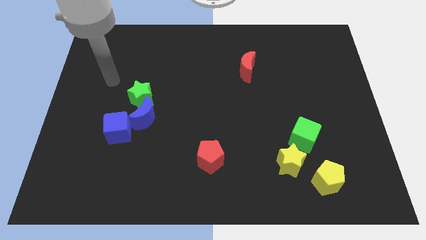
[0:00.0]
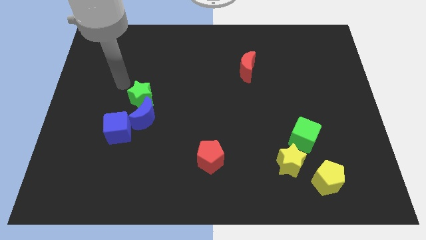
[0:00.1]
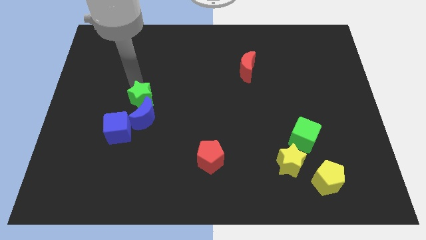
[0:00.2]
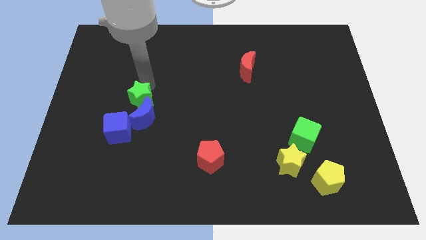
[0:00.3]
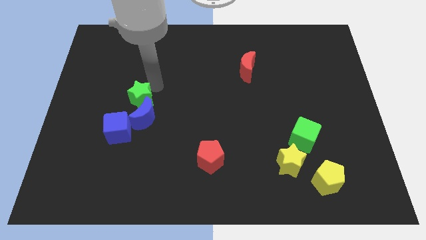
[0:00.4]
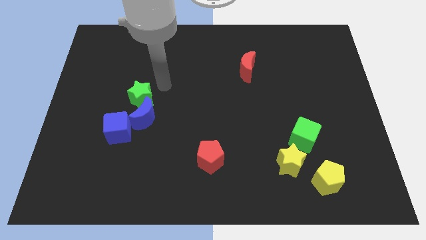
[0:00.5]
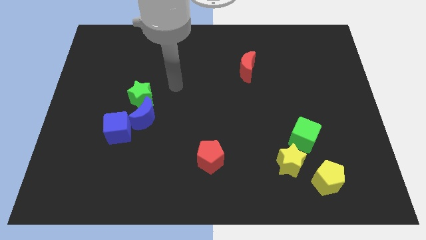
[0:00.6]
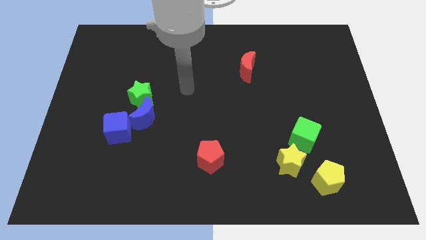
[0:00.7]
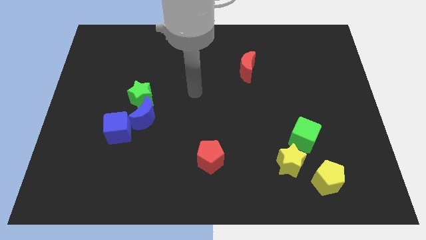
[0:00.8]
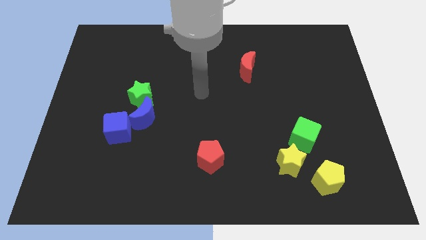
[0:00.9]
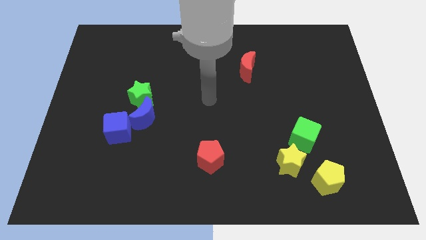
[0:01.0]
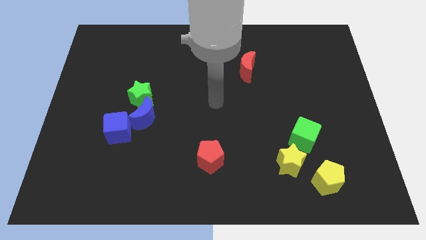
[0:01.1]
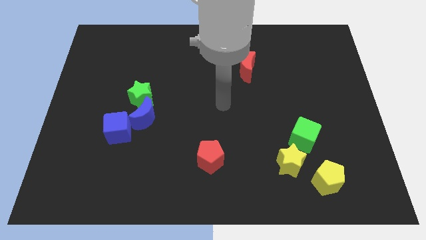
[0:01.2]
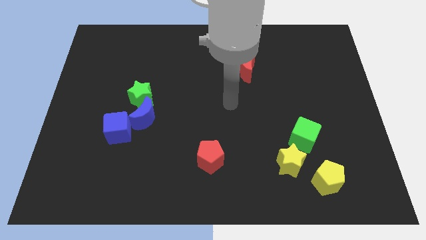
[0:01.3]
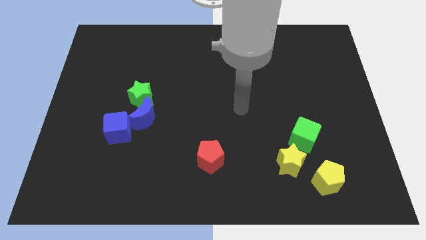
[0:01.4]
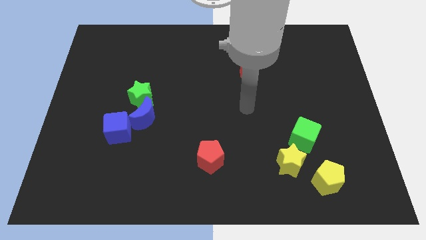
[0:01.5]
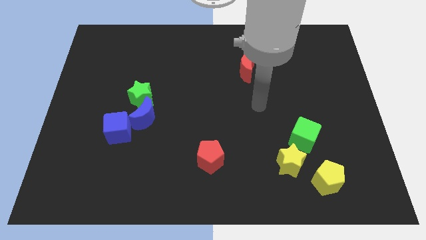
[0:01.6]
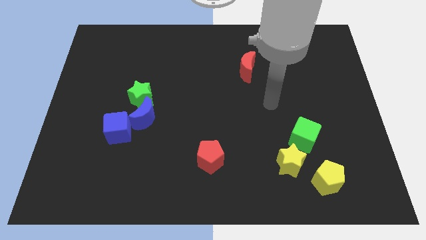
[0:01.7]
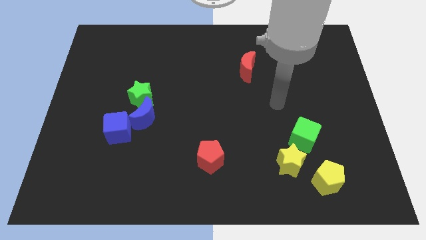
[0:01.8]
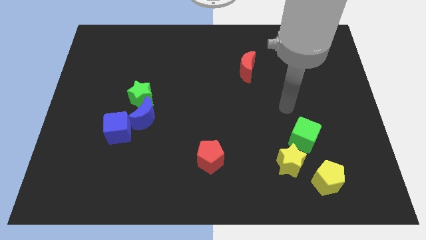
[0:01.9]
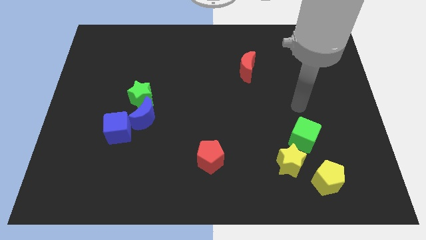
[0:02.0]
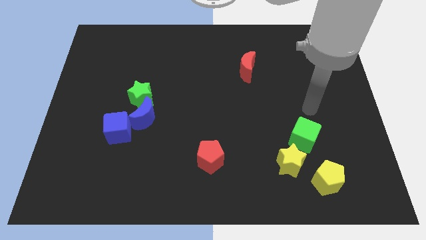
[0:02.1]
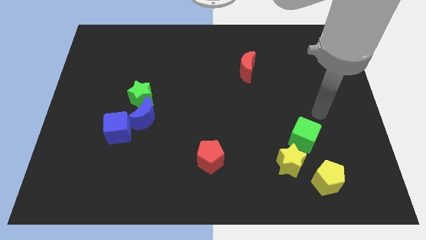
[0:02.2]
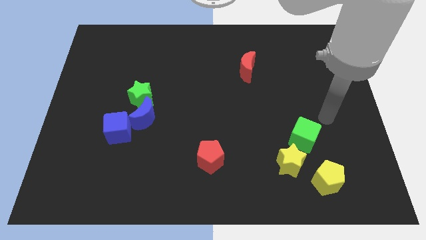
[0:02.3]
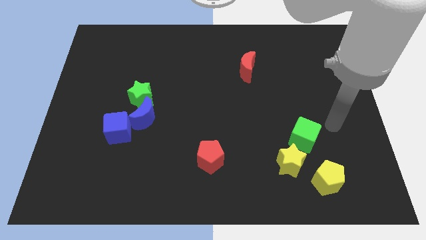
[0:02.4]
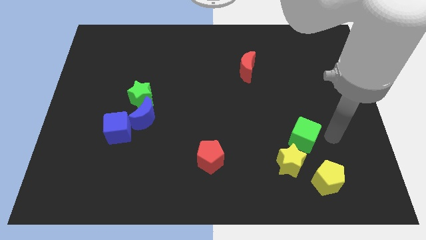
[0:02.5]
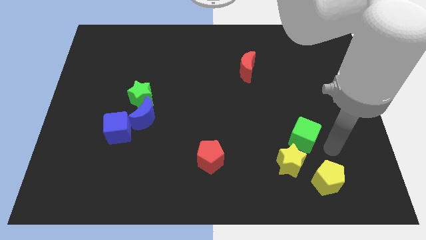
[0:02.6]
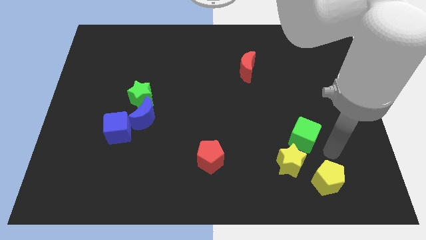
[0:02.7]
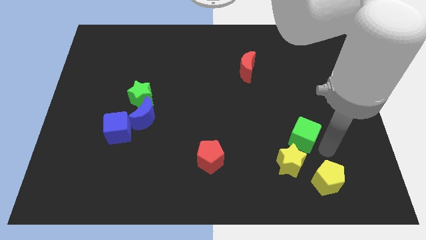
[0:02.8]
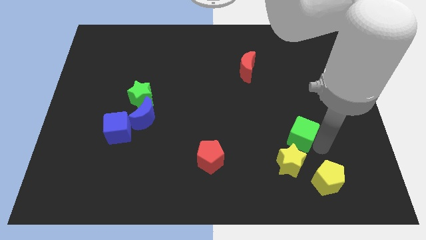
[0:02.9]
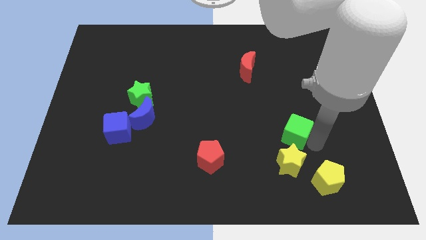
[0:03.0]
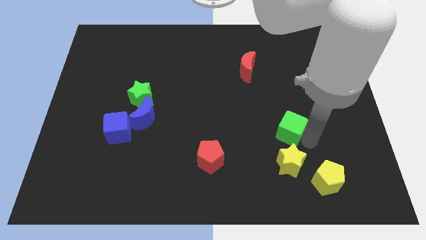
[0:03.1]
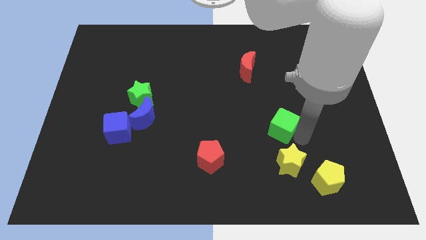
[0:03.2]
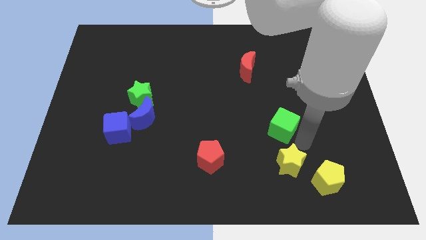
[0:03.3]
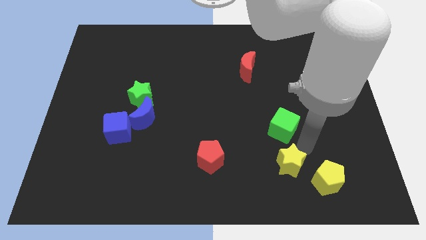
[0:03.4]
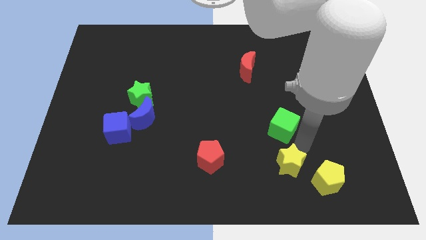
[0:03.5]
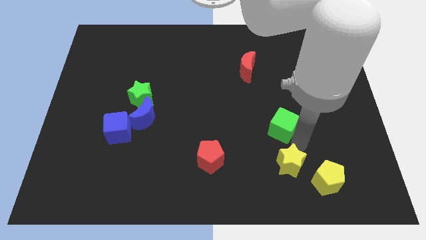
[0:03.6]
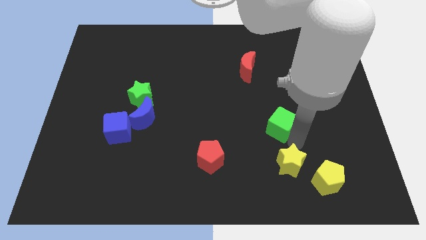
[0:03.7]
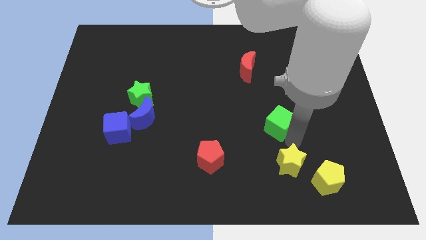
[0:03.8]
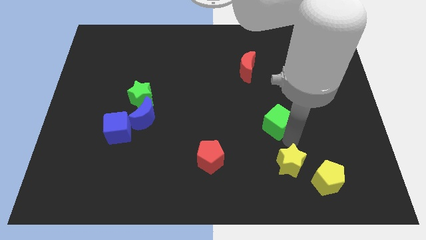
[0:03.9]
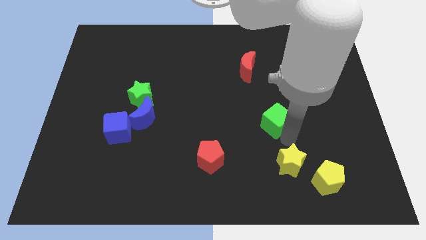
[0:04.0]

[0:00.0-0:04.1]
slightly slide the green cube diagonally upwards and to the left

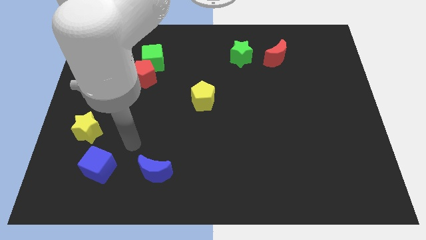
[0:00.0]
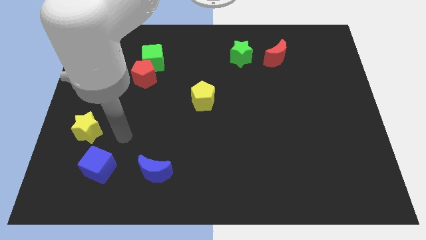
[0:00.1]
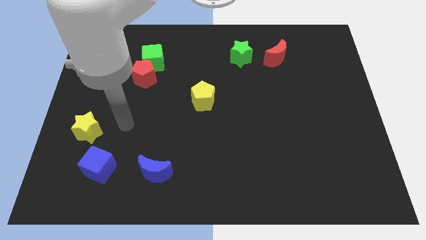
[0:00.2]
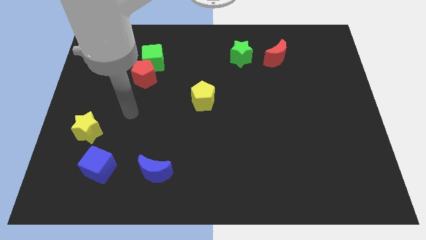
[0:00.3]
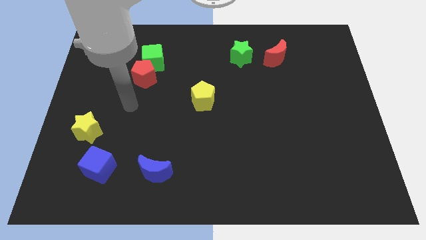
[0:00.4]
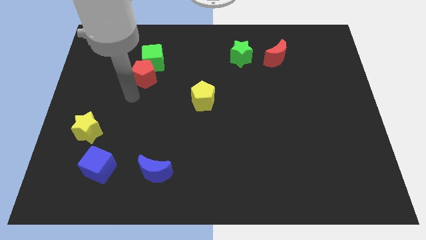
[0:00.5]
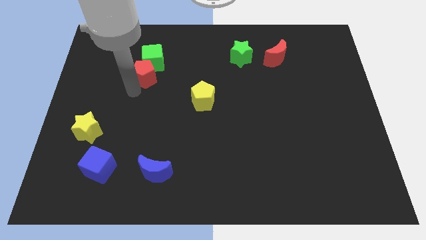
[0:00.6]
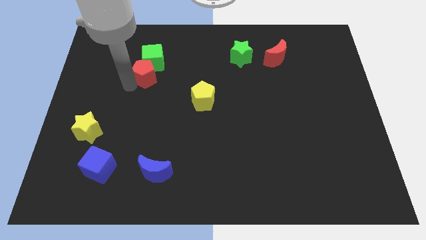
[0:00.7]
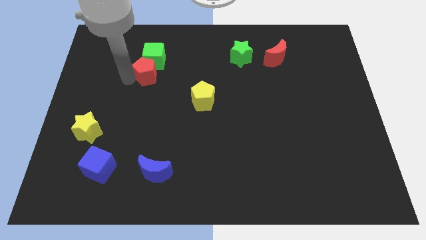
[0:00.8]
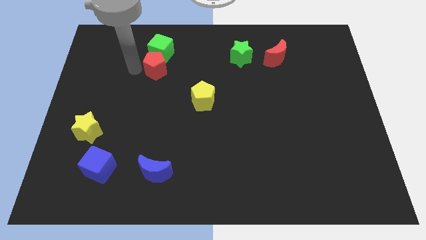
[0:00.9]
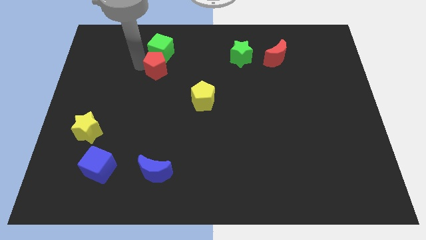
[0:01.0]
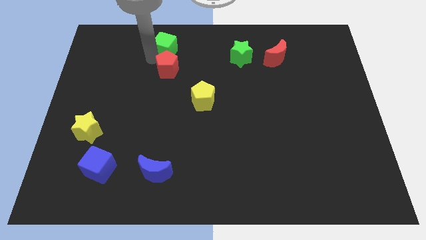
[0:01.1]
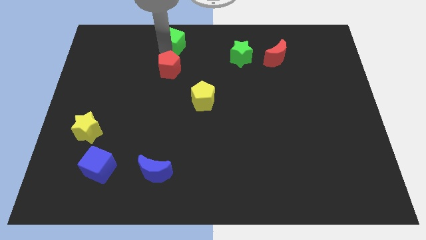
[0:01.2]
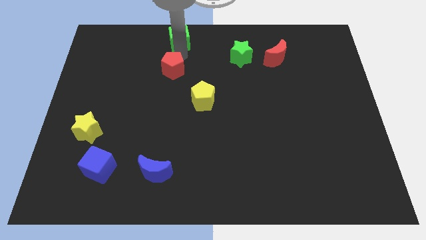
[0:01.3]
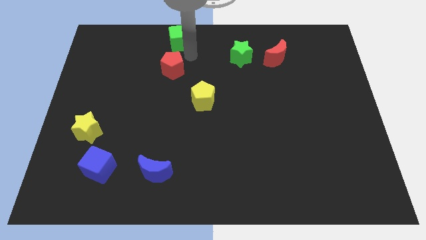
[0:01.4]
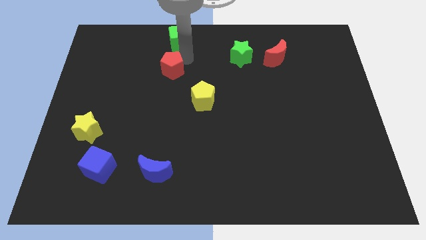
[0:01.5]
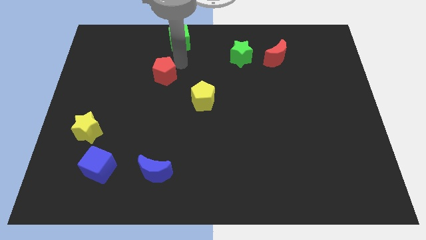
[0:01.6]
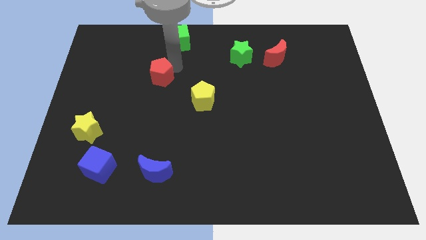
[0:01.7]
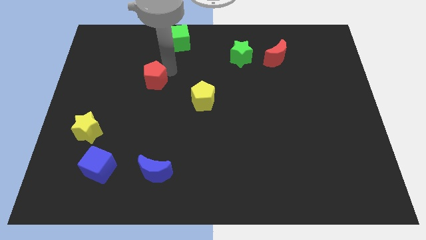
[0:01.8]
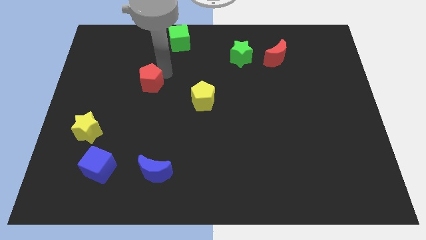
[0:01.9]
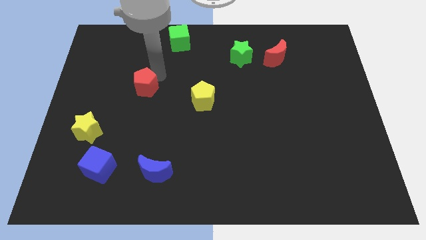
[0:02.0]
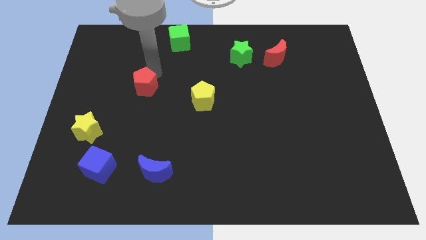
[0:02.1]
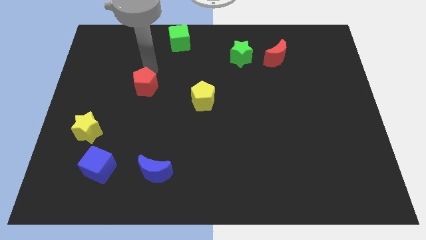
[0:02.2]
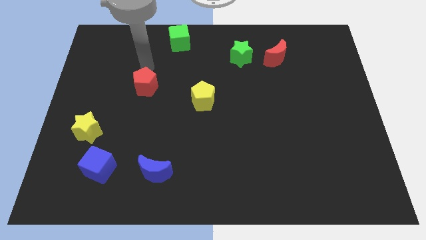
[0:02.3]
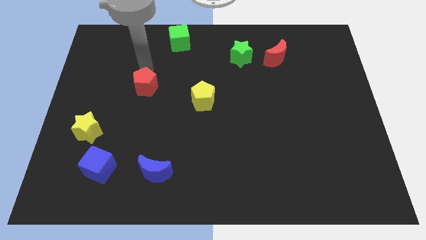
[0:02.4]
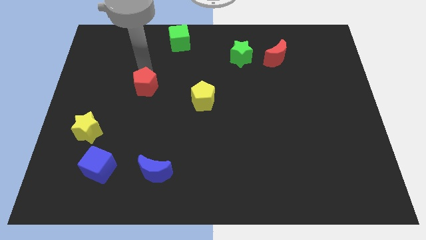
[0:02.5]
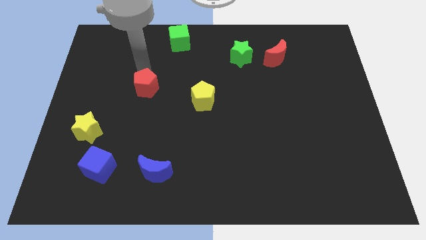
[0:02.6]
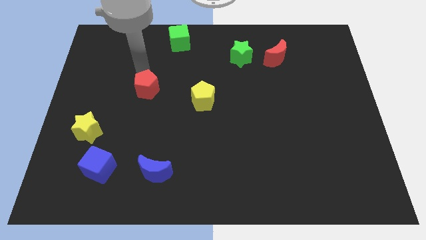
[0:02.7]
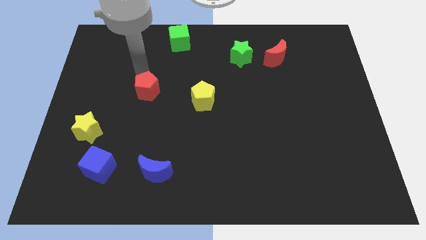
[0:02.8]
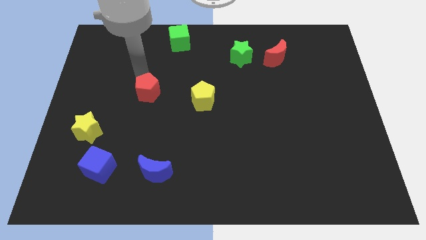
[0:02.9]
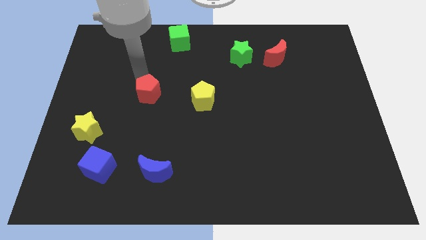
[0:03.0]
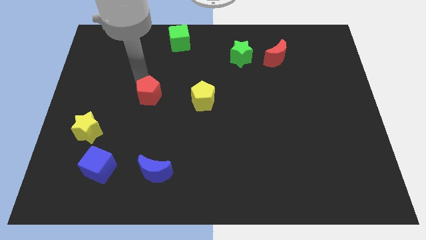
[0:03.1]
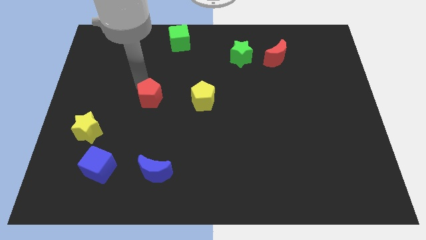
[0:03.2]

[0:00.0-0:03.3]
push the red pentagon downwards a bit

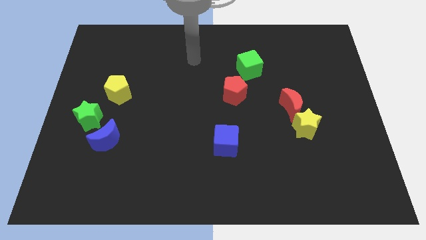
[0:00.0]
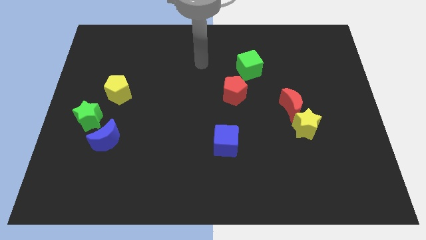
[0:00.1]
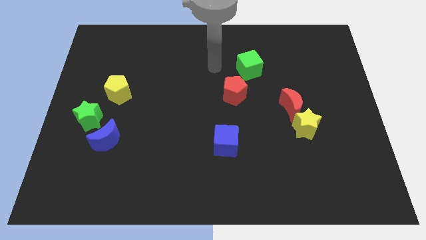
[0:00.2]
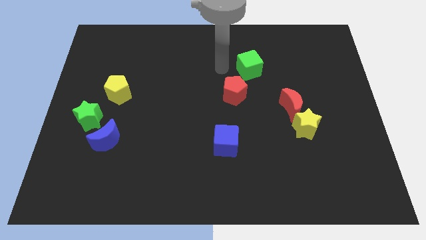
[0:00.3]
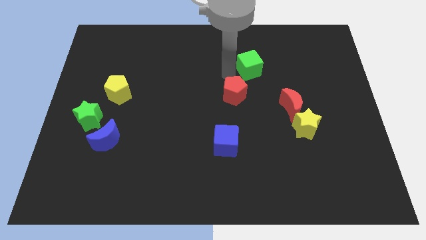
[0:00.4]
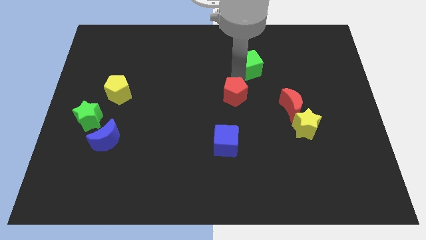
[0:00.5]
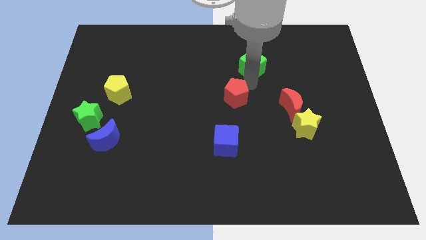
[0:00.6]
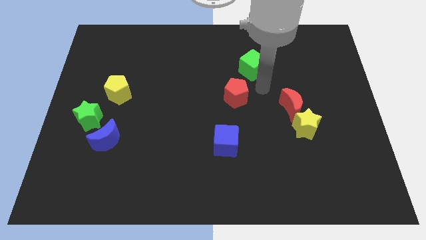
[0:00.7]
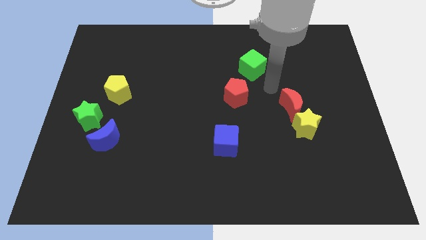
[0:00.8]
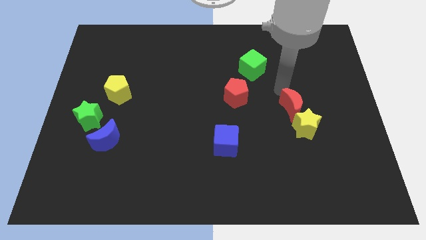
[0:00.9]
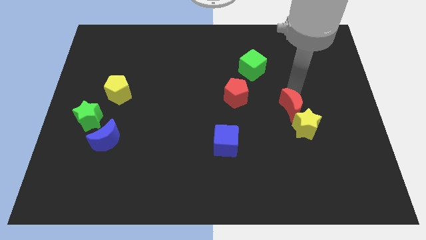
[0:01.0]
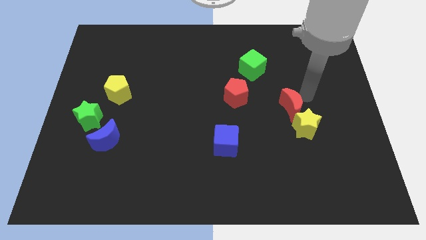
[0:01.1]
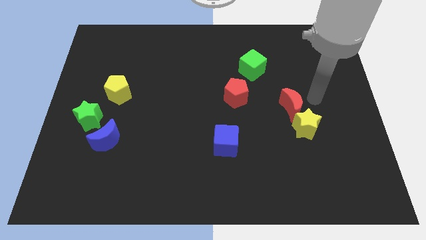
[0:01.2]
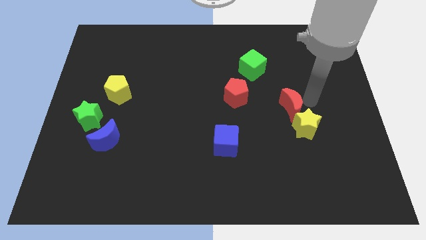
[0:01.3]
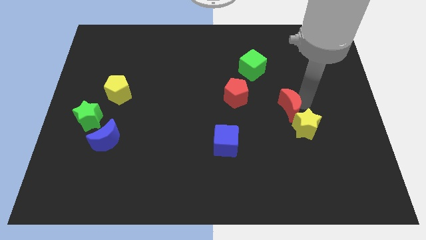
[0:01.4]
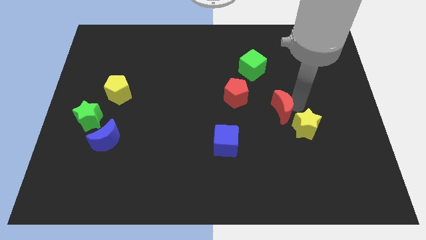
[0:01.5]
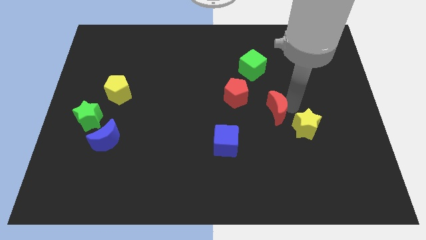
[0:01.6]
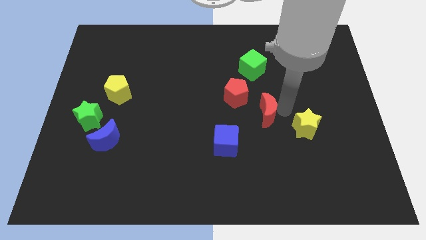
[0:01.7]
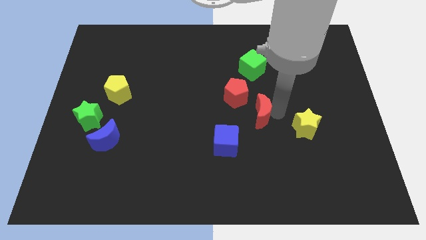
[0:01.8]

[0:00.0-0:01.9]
slightly slide the red moon left
